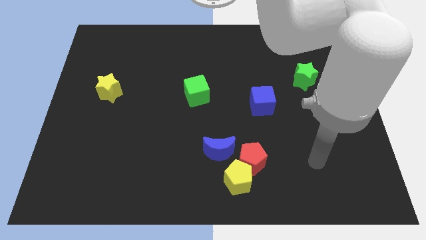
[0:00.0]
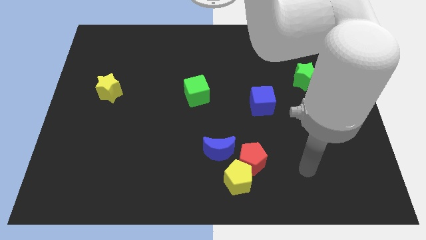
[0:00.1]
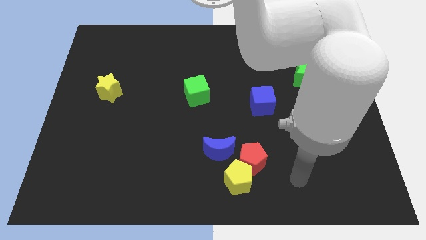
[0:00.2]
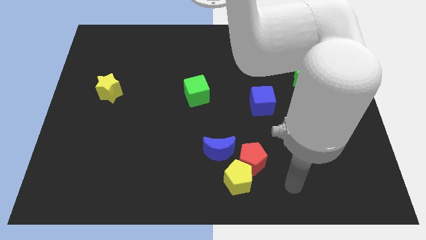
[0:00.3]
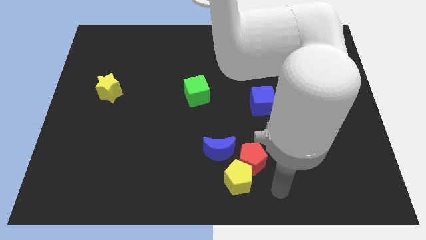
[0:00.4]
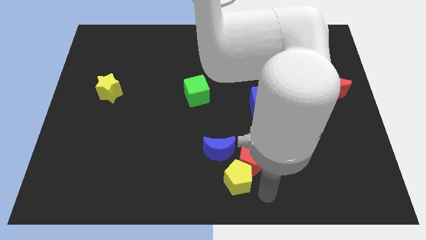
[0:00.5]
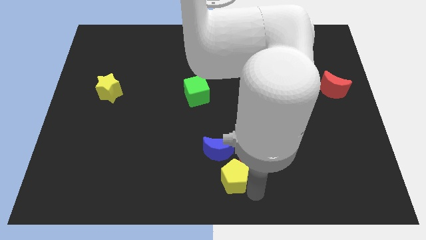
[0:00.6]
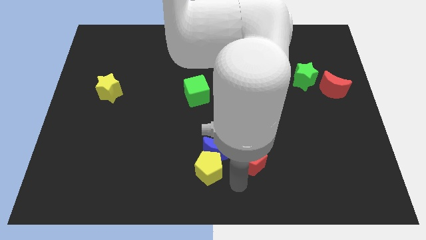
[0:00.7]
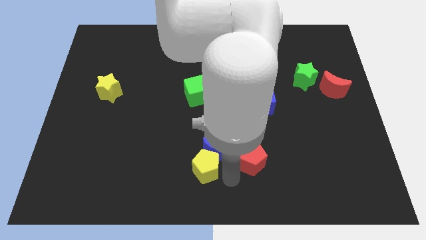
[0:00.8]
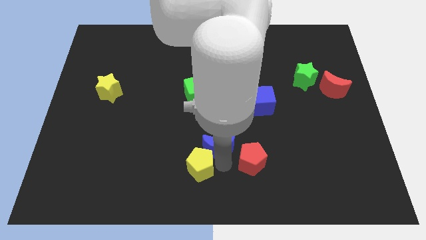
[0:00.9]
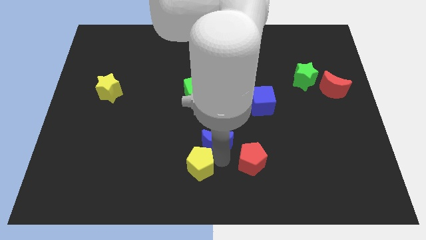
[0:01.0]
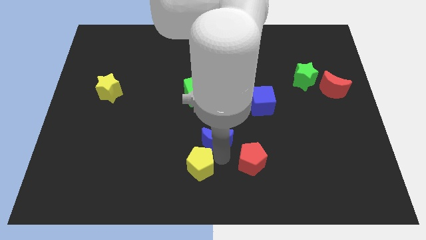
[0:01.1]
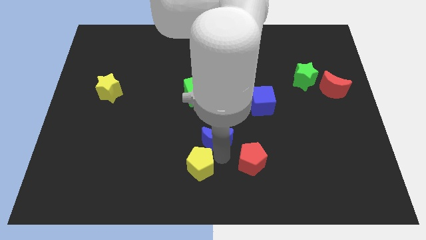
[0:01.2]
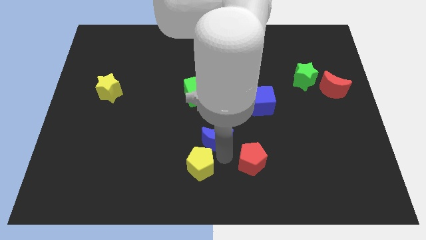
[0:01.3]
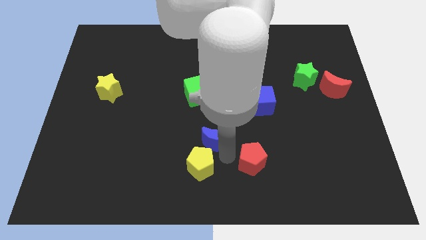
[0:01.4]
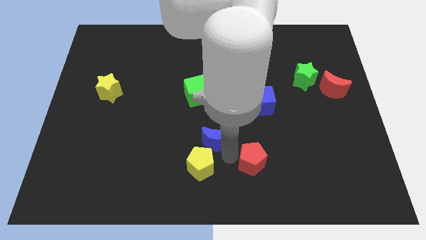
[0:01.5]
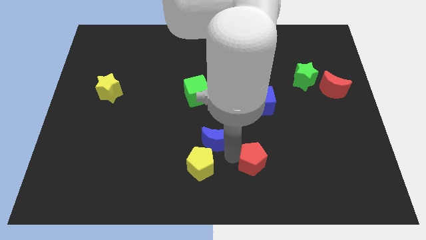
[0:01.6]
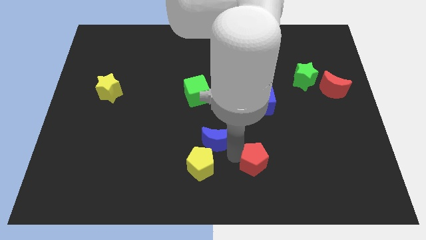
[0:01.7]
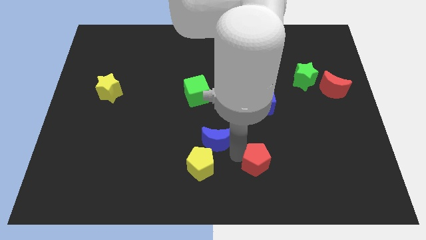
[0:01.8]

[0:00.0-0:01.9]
pull the red pentagon apart from the yellow pentagon and blue moon

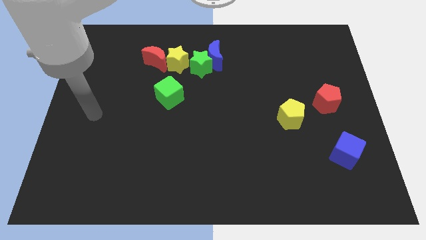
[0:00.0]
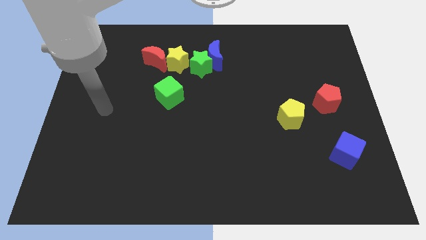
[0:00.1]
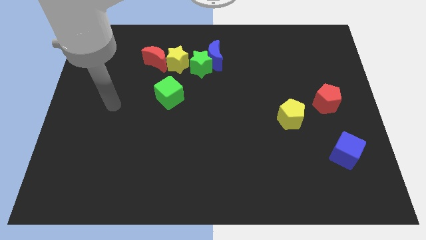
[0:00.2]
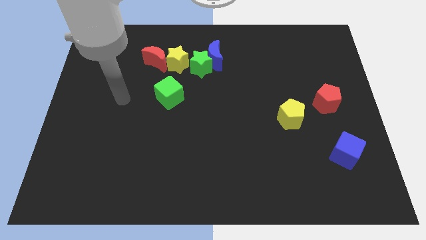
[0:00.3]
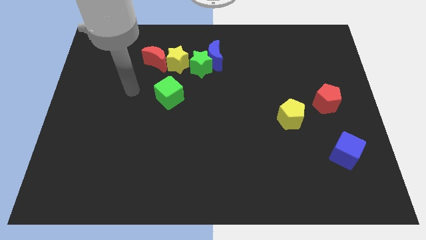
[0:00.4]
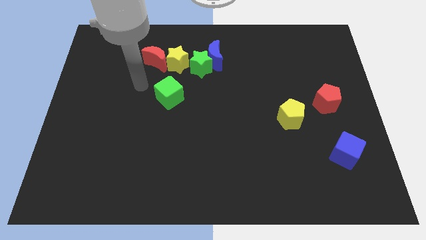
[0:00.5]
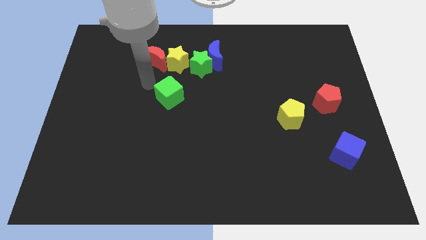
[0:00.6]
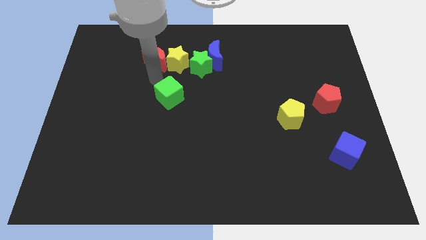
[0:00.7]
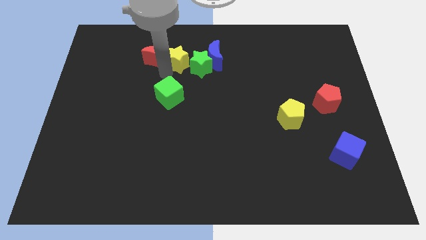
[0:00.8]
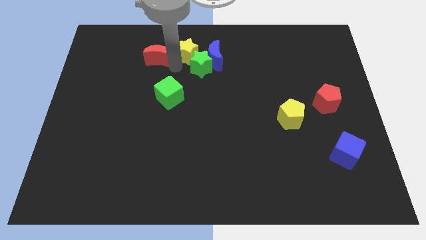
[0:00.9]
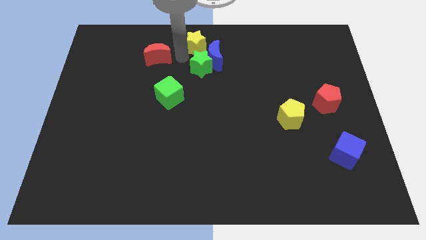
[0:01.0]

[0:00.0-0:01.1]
separate the red moon from the yellow star

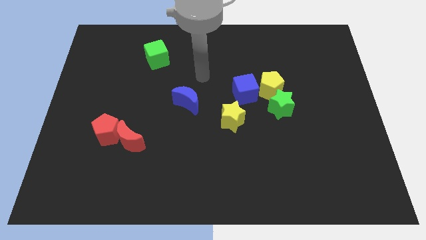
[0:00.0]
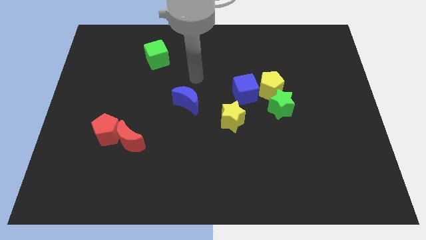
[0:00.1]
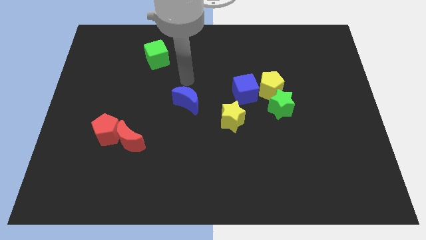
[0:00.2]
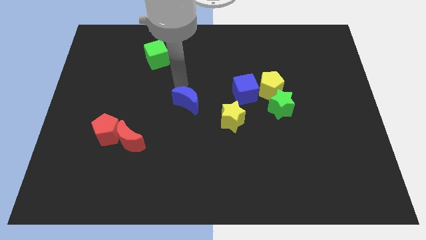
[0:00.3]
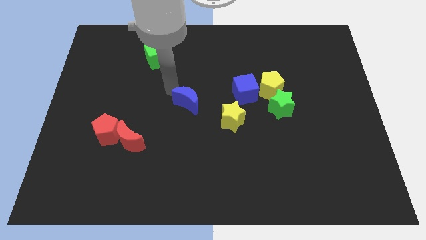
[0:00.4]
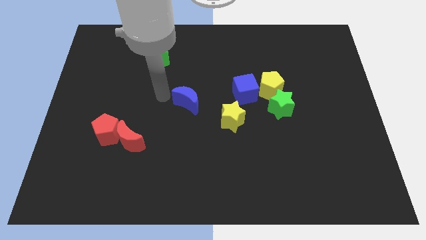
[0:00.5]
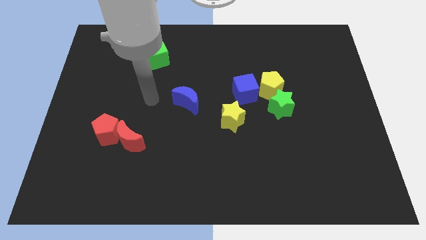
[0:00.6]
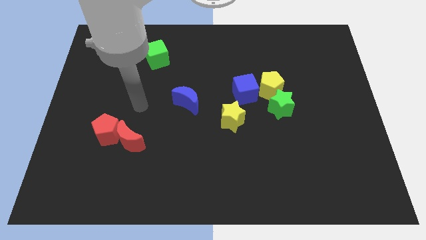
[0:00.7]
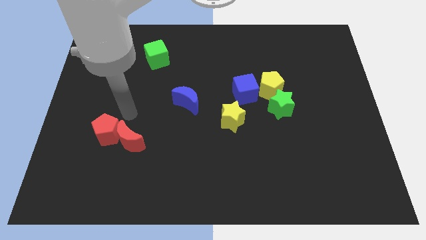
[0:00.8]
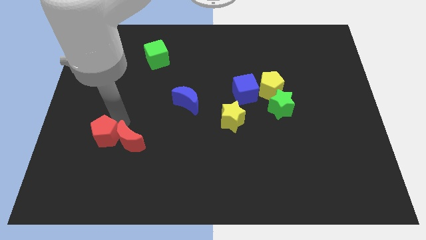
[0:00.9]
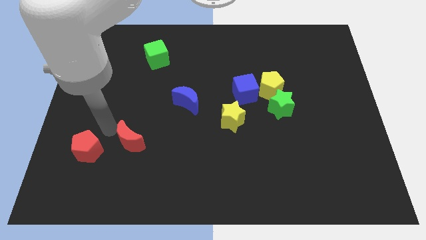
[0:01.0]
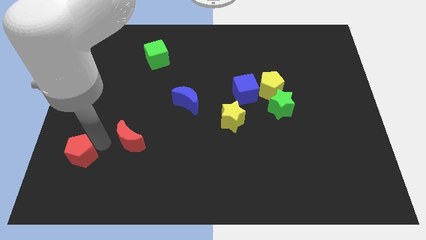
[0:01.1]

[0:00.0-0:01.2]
separate the red moon from the red pentagon

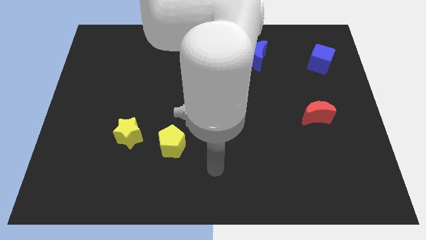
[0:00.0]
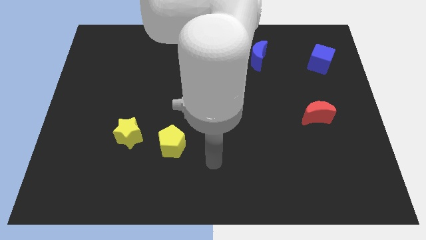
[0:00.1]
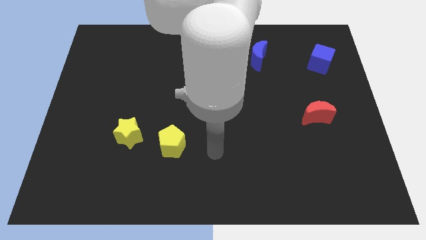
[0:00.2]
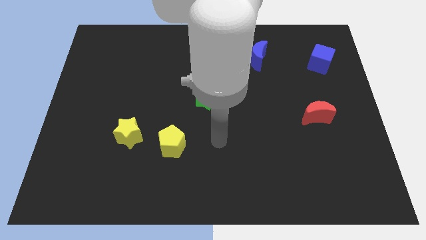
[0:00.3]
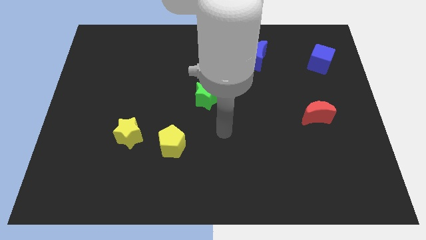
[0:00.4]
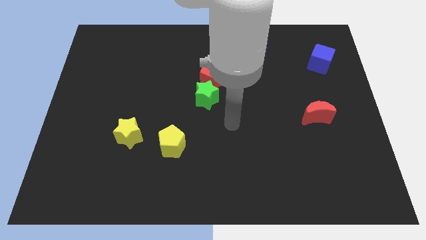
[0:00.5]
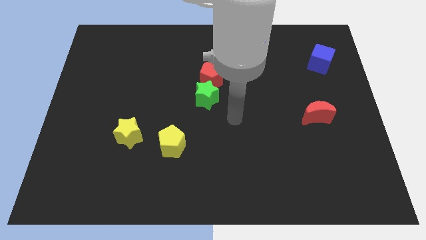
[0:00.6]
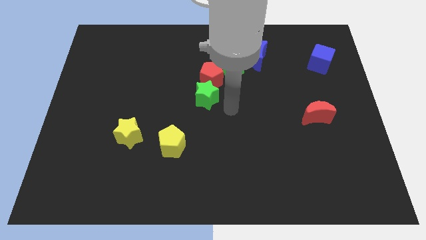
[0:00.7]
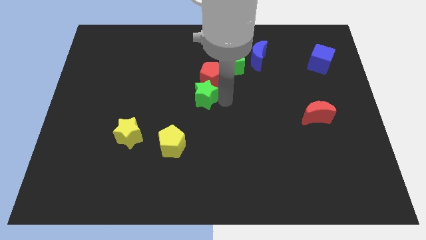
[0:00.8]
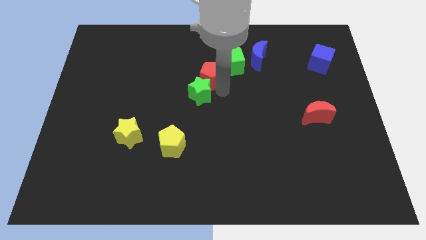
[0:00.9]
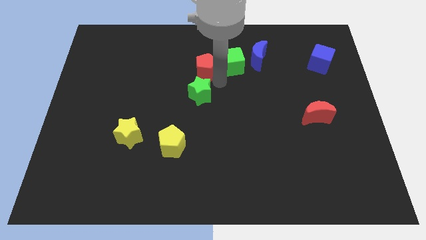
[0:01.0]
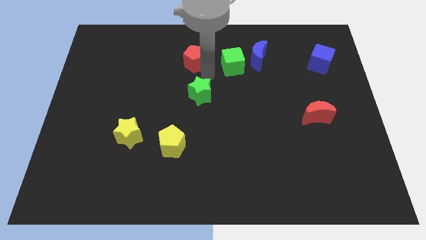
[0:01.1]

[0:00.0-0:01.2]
separate the green star from the red pentagon

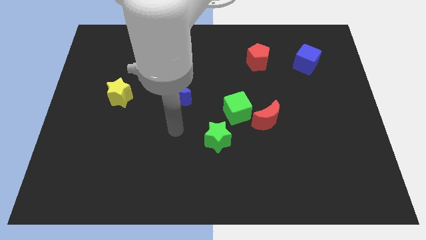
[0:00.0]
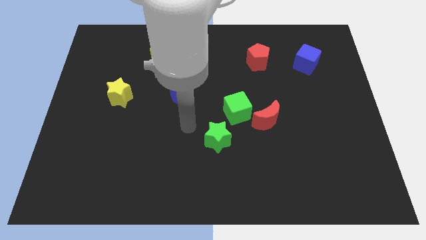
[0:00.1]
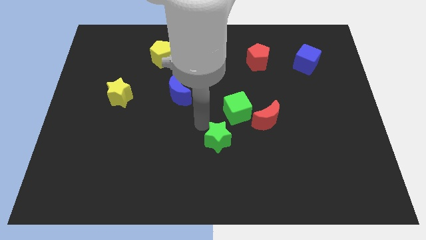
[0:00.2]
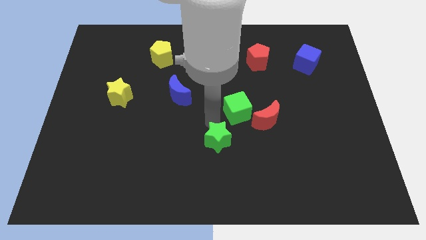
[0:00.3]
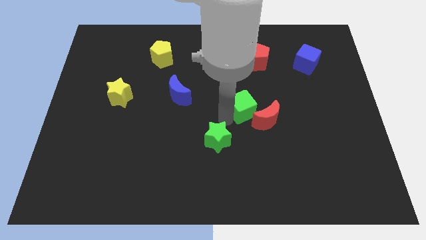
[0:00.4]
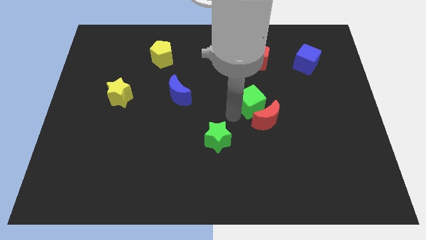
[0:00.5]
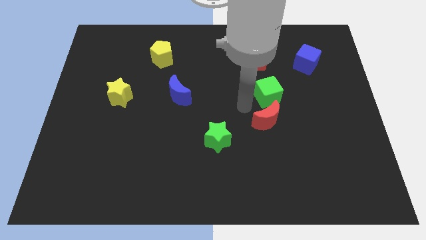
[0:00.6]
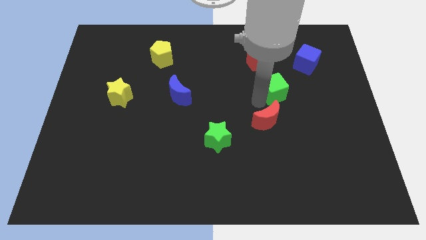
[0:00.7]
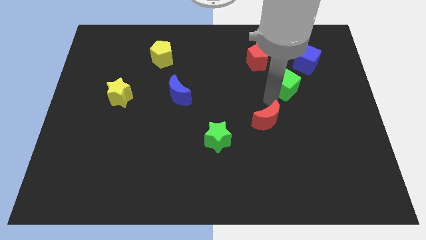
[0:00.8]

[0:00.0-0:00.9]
separate the red moon from the green cube

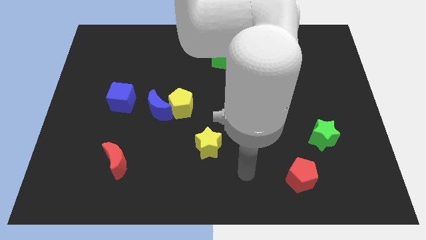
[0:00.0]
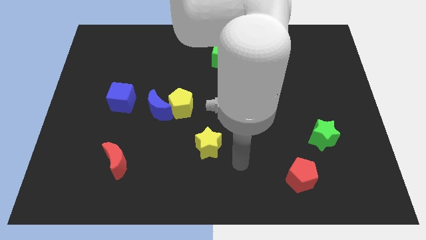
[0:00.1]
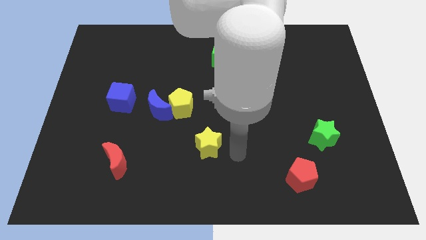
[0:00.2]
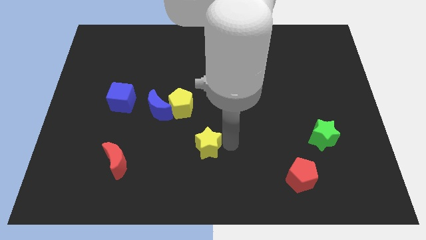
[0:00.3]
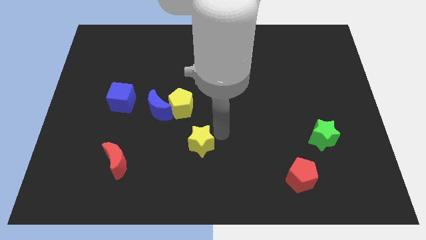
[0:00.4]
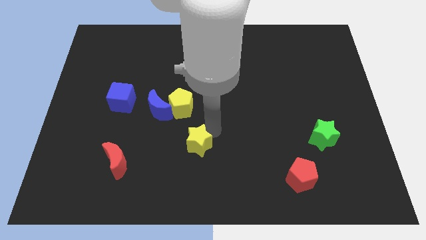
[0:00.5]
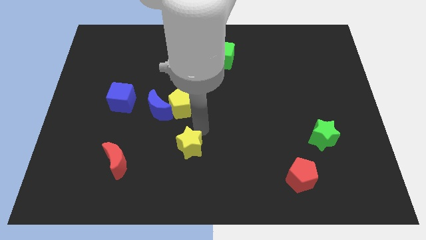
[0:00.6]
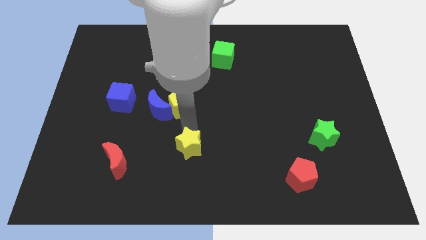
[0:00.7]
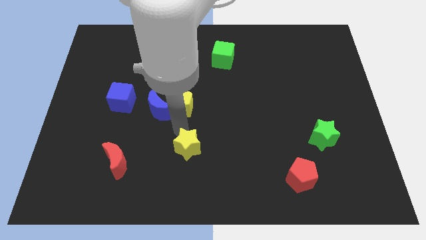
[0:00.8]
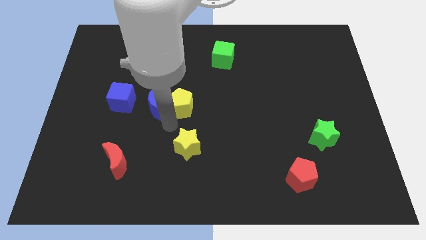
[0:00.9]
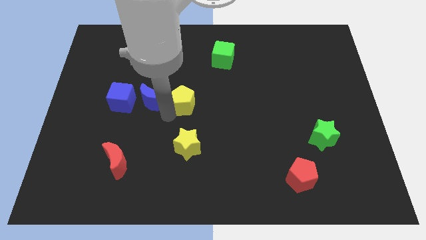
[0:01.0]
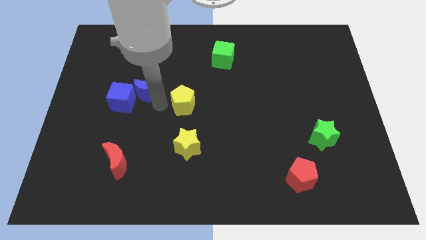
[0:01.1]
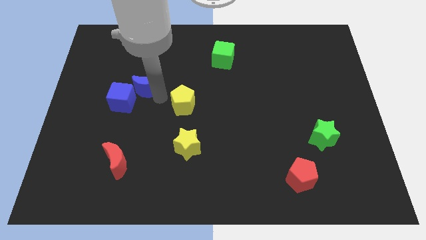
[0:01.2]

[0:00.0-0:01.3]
move the yellow pentagon away from the blue moon

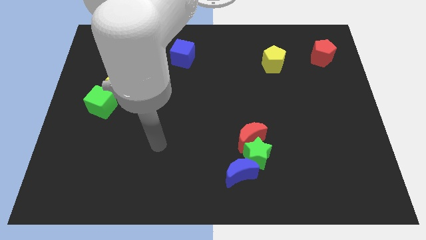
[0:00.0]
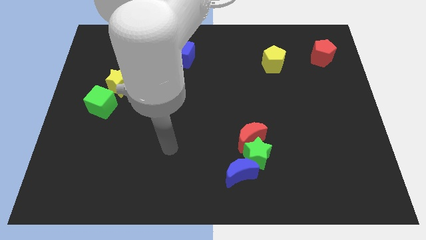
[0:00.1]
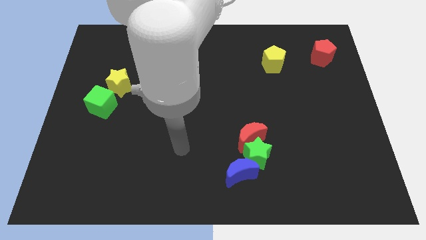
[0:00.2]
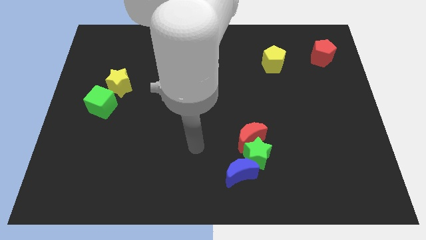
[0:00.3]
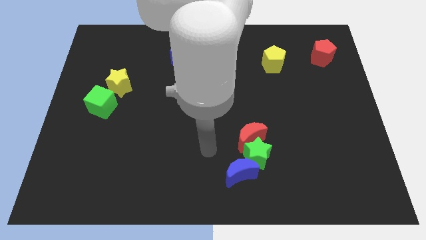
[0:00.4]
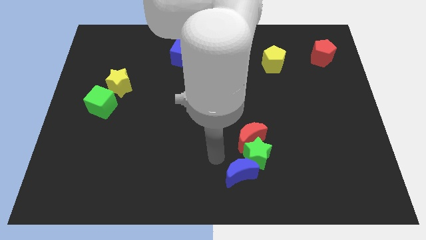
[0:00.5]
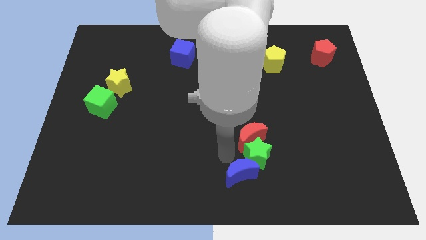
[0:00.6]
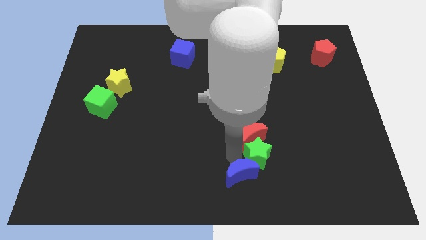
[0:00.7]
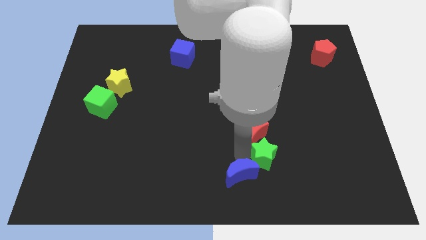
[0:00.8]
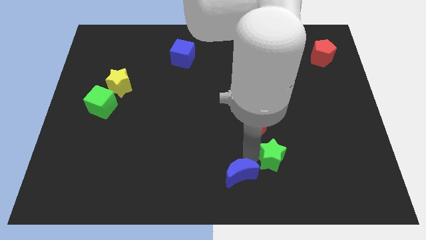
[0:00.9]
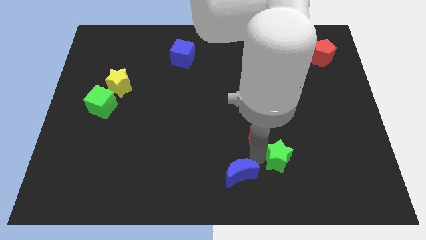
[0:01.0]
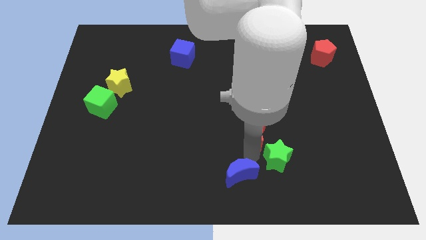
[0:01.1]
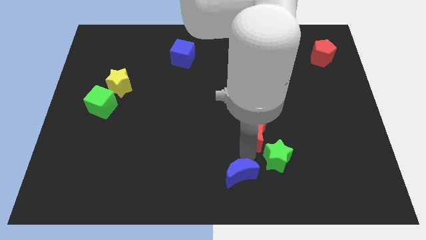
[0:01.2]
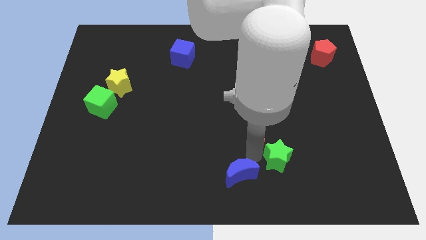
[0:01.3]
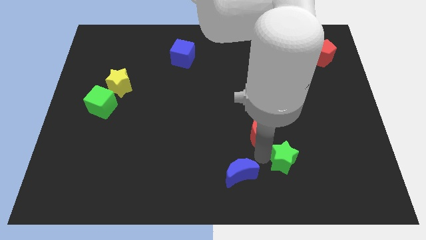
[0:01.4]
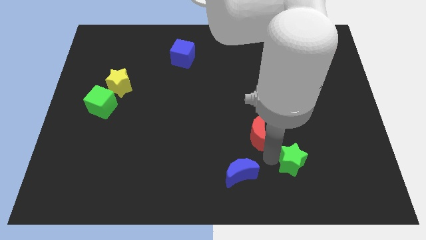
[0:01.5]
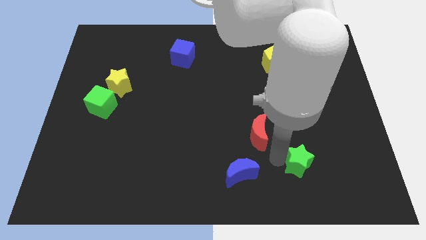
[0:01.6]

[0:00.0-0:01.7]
pull the green star apart from the red moon and blue moon

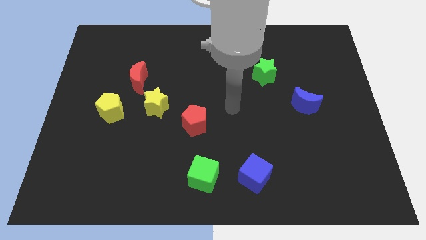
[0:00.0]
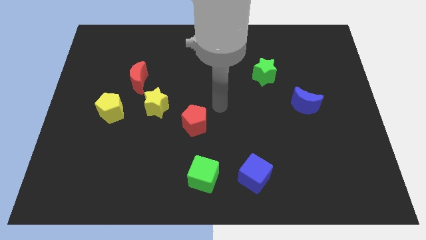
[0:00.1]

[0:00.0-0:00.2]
move the red moon away from the yellow star
